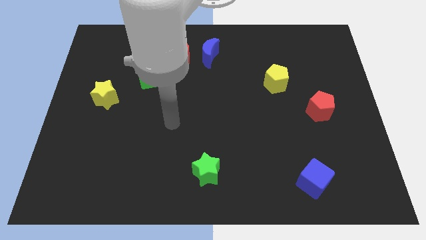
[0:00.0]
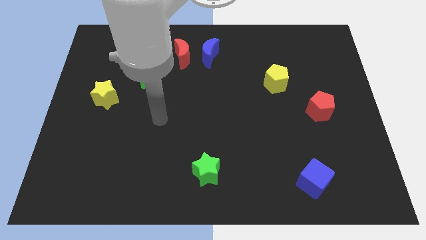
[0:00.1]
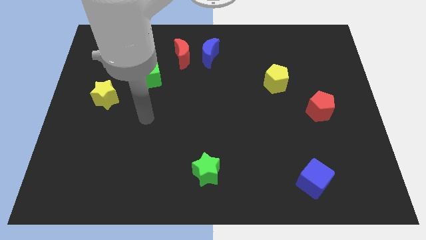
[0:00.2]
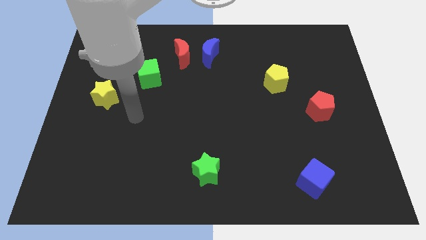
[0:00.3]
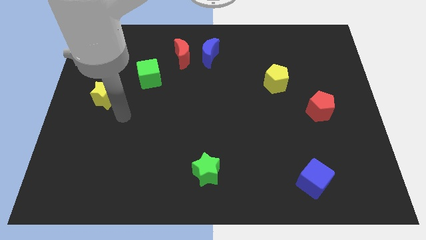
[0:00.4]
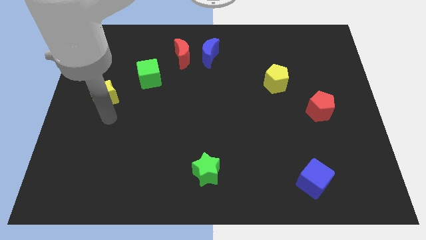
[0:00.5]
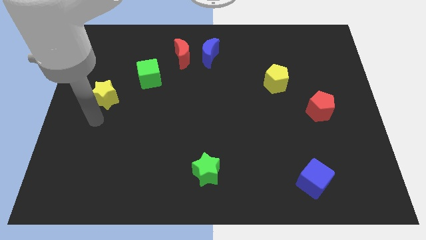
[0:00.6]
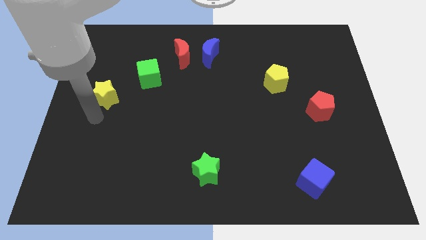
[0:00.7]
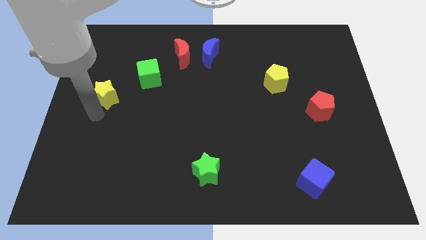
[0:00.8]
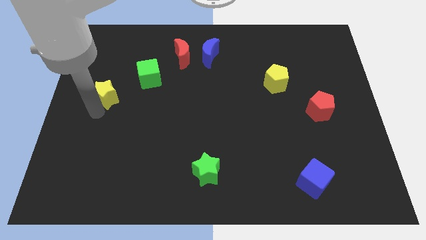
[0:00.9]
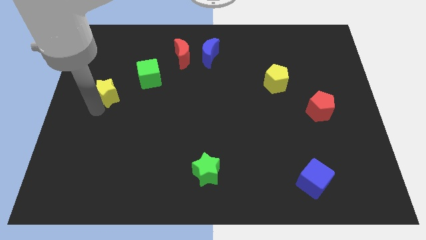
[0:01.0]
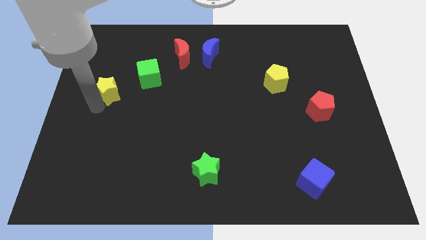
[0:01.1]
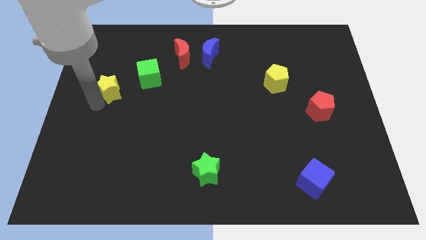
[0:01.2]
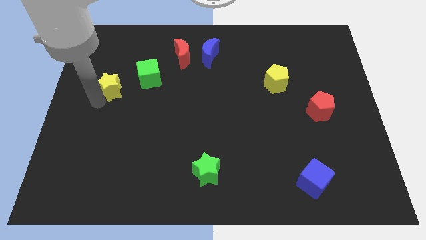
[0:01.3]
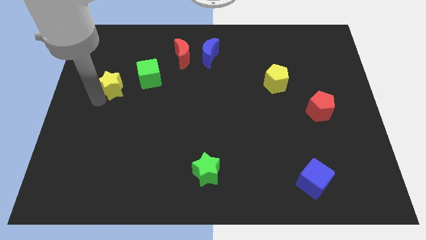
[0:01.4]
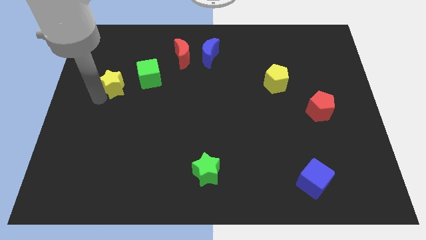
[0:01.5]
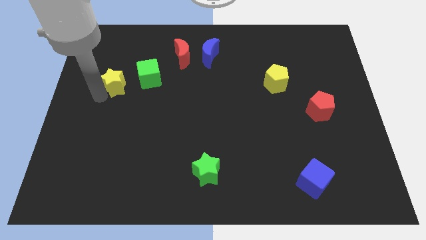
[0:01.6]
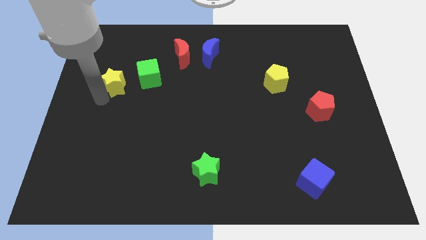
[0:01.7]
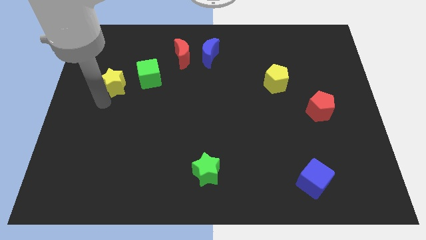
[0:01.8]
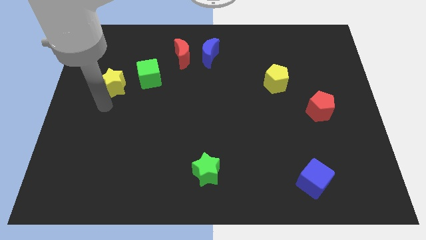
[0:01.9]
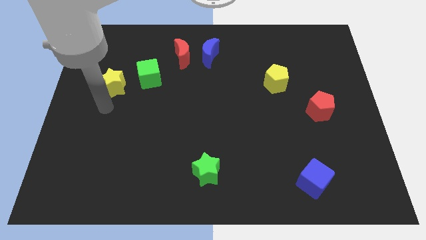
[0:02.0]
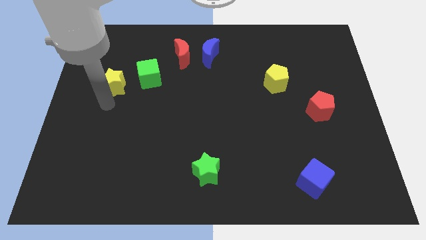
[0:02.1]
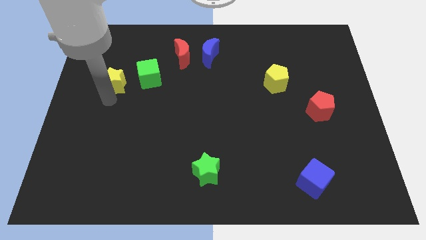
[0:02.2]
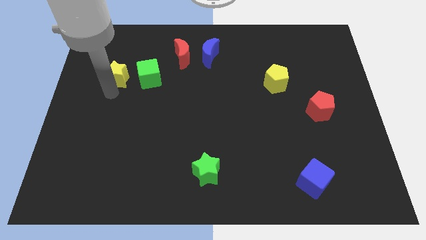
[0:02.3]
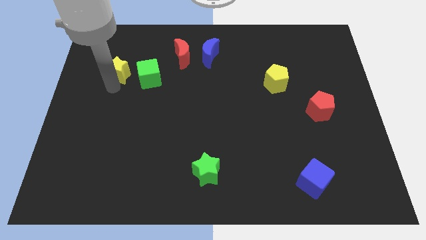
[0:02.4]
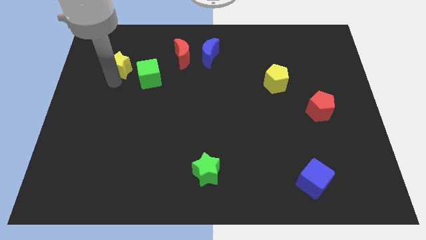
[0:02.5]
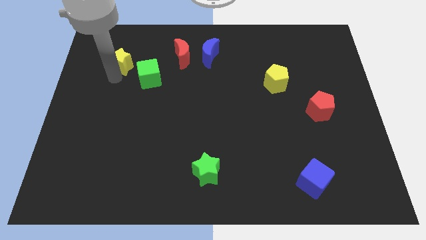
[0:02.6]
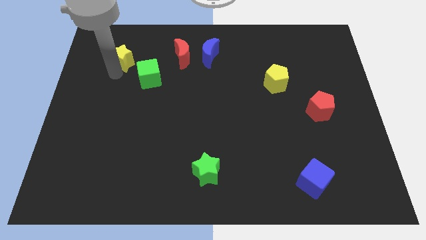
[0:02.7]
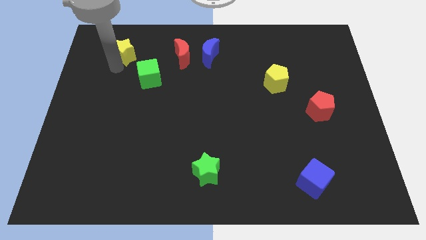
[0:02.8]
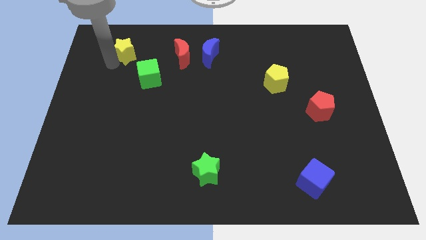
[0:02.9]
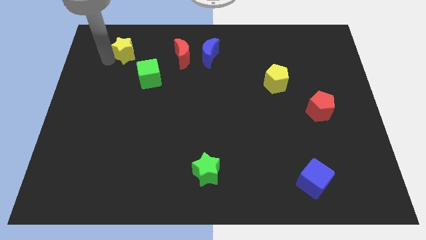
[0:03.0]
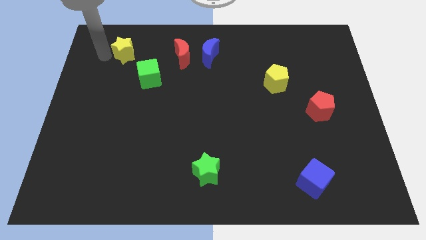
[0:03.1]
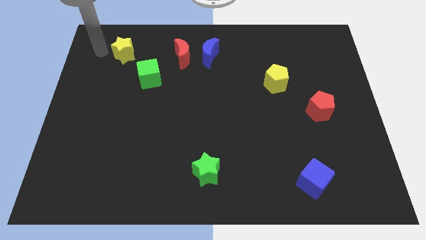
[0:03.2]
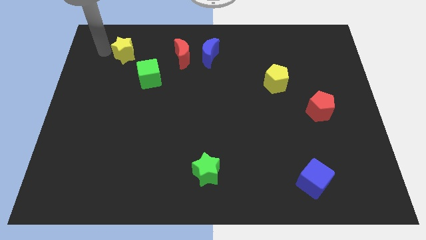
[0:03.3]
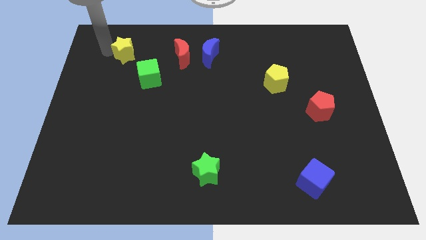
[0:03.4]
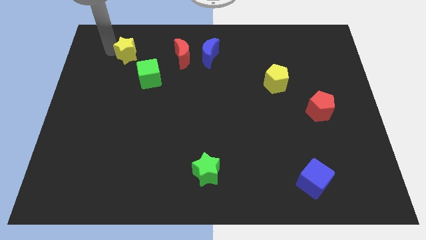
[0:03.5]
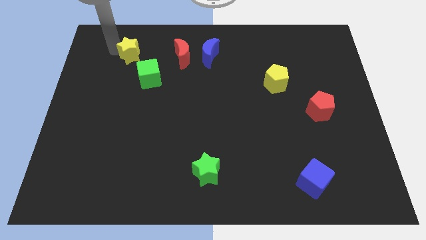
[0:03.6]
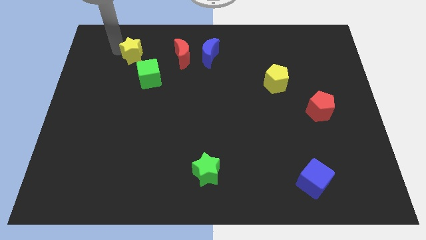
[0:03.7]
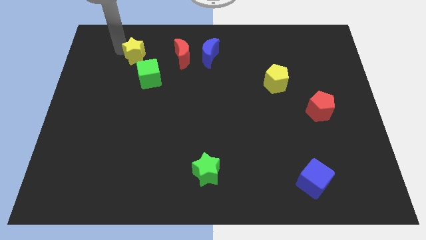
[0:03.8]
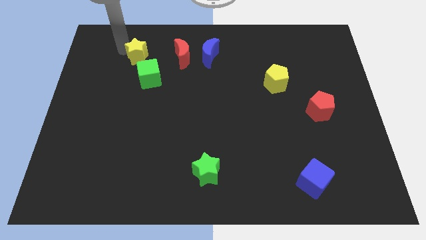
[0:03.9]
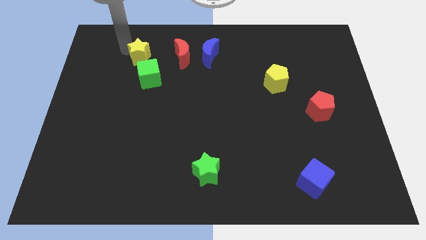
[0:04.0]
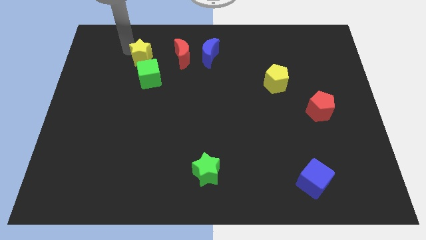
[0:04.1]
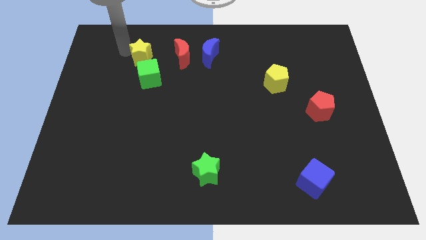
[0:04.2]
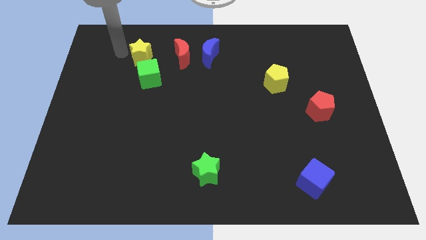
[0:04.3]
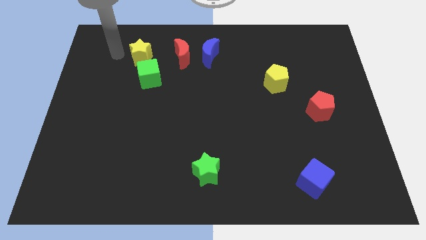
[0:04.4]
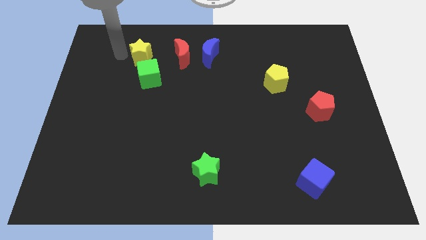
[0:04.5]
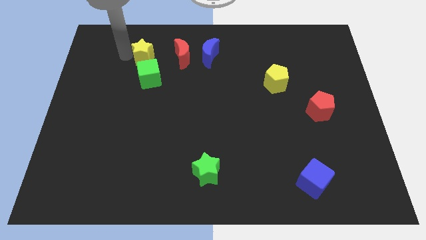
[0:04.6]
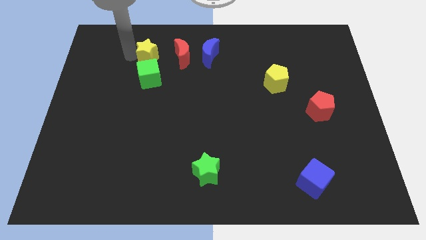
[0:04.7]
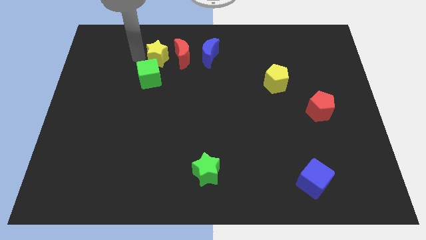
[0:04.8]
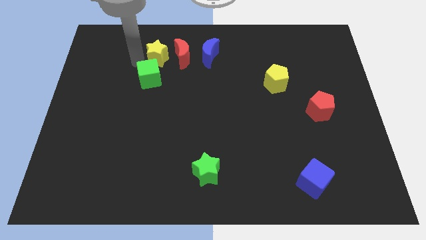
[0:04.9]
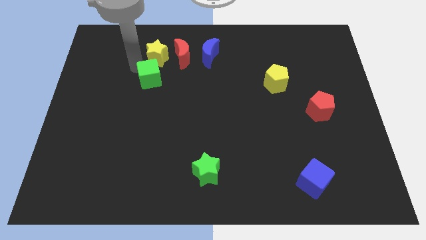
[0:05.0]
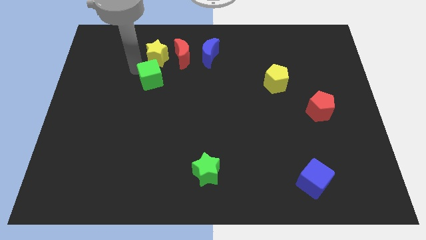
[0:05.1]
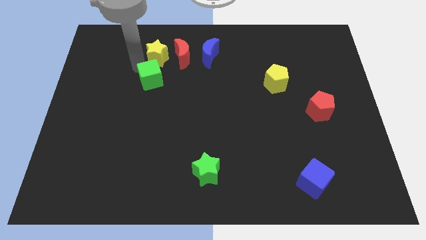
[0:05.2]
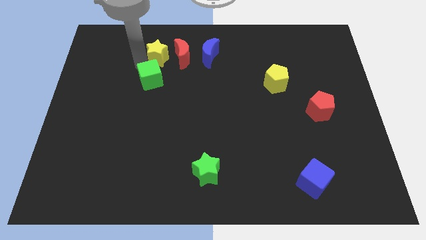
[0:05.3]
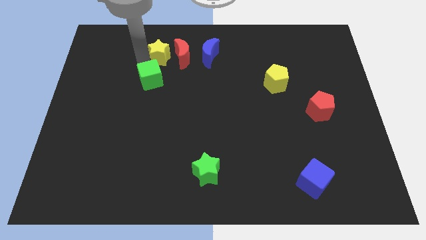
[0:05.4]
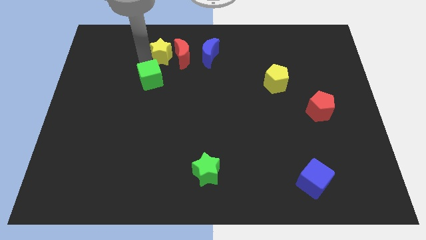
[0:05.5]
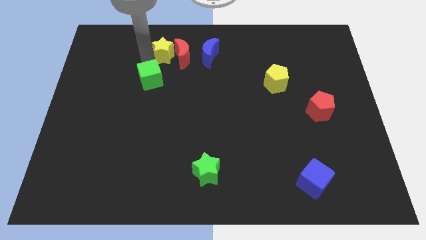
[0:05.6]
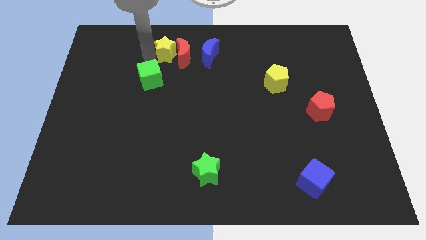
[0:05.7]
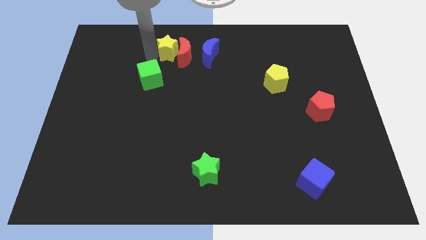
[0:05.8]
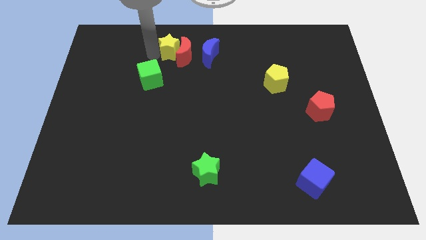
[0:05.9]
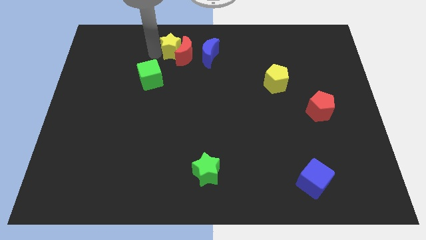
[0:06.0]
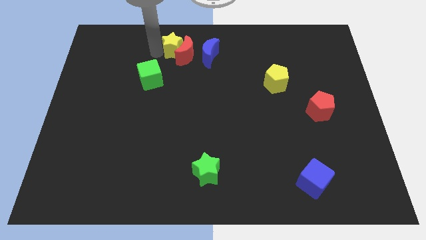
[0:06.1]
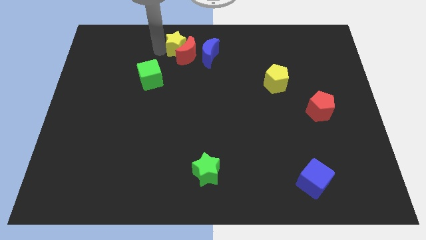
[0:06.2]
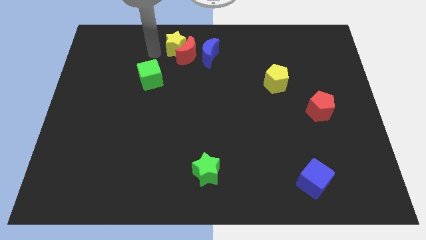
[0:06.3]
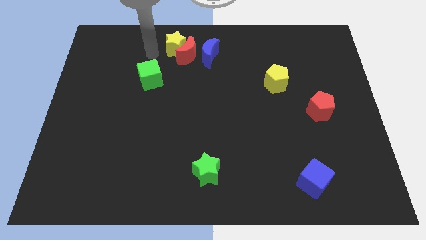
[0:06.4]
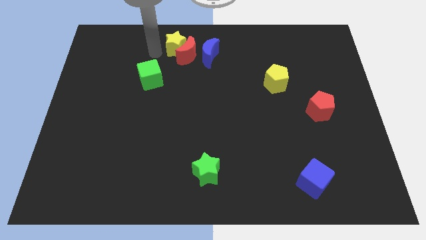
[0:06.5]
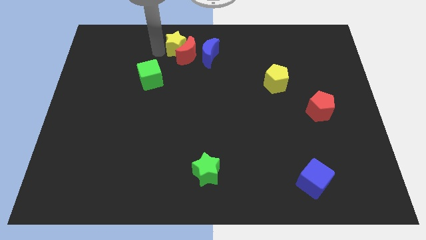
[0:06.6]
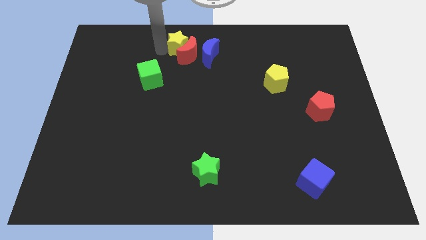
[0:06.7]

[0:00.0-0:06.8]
slide the yellow star to the towards your base
